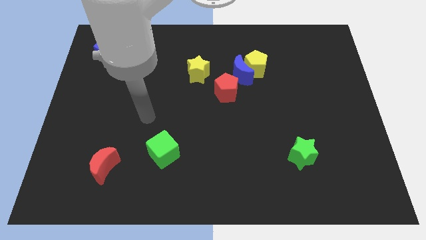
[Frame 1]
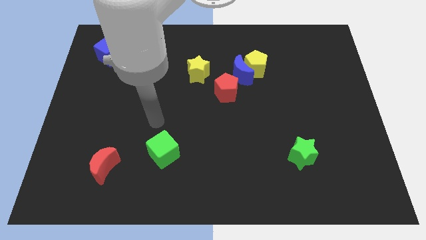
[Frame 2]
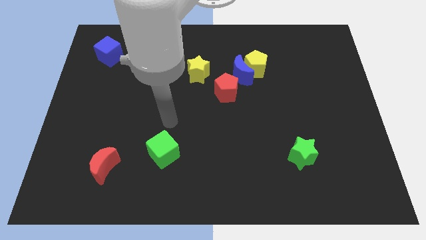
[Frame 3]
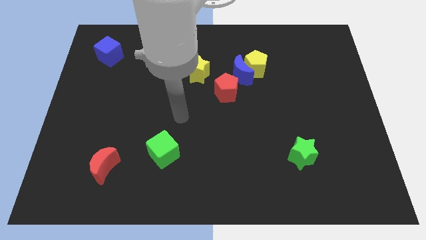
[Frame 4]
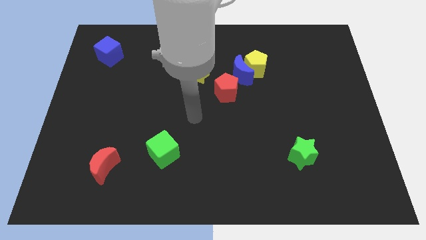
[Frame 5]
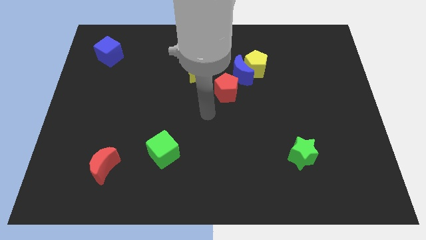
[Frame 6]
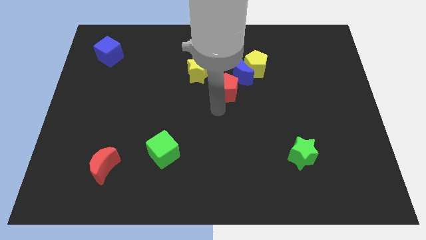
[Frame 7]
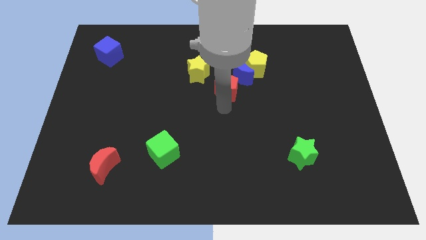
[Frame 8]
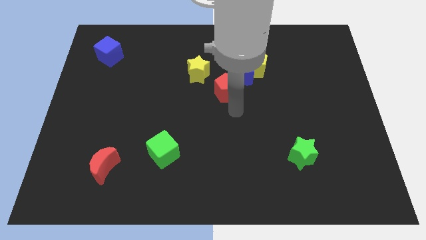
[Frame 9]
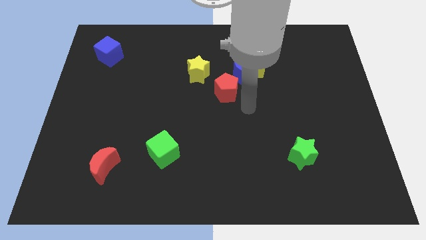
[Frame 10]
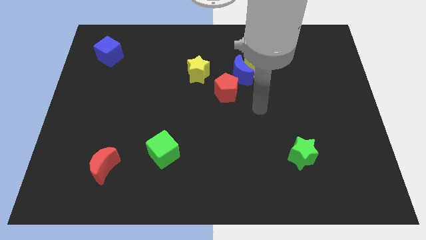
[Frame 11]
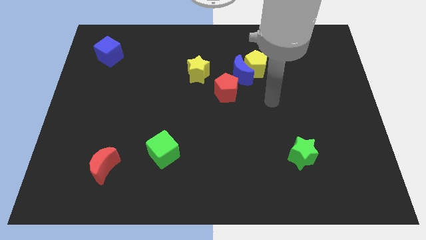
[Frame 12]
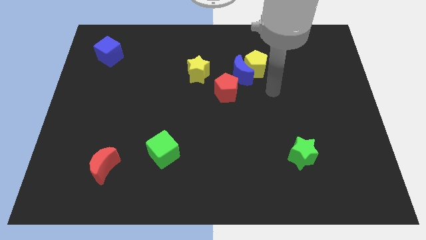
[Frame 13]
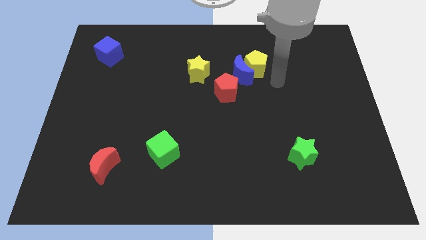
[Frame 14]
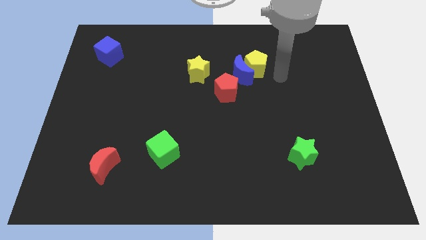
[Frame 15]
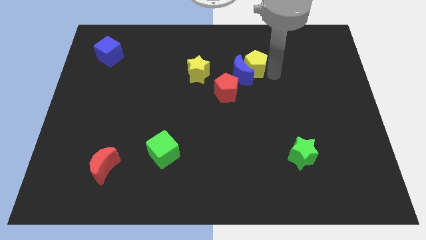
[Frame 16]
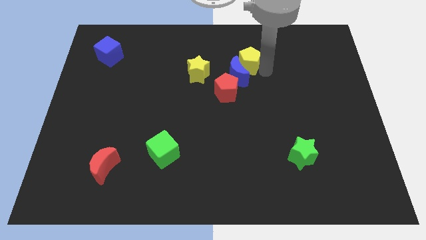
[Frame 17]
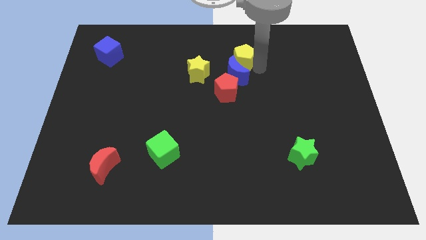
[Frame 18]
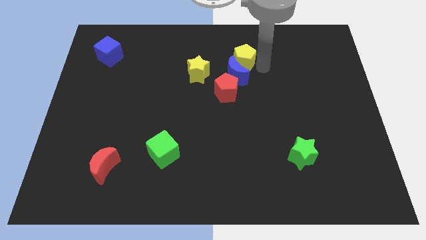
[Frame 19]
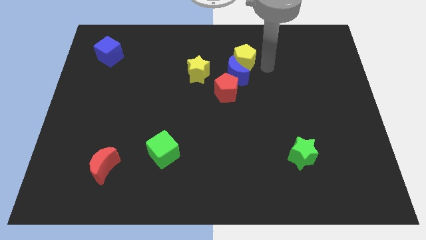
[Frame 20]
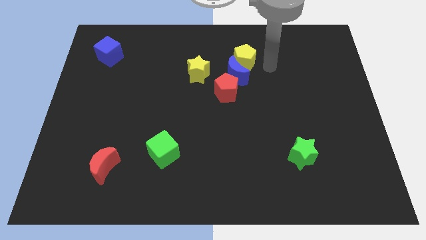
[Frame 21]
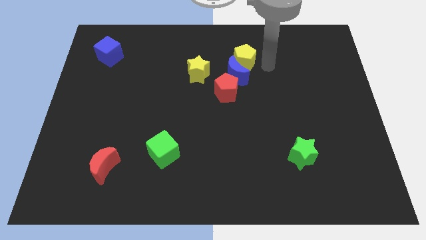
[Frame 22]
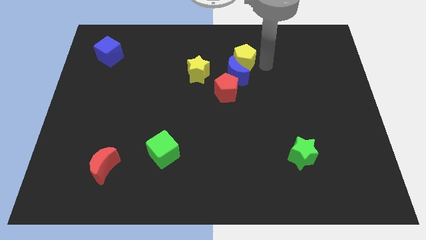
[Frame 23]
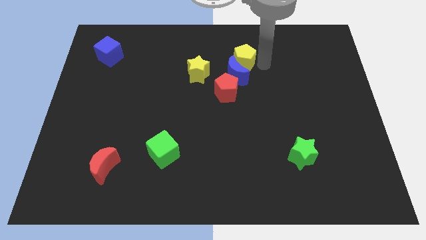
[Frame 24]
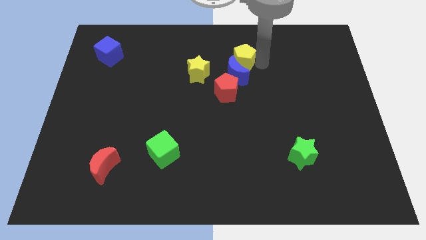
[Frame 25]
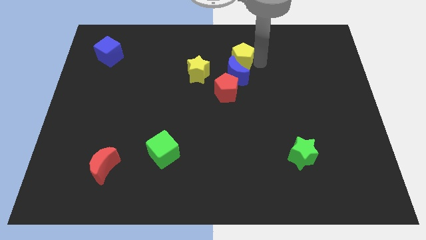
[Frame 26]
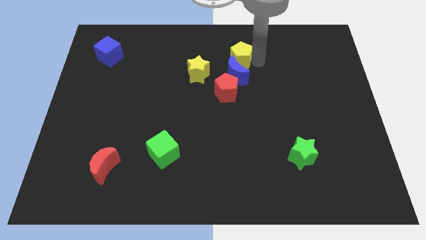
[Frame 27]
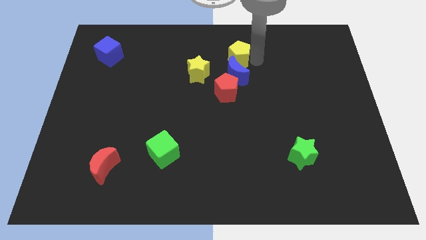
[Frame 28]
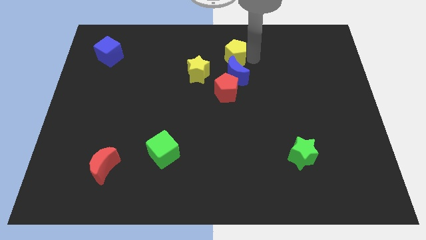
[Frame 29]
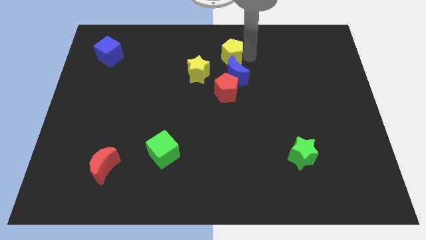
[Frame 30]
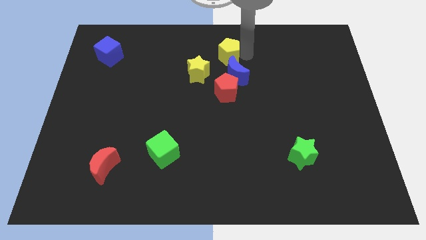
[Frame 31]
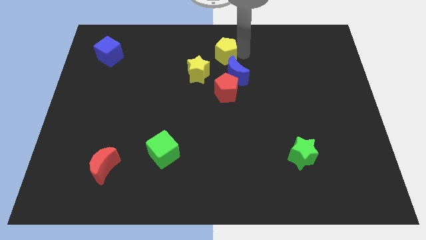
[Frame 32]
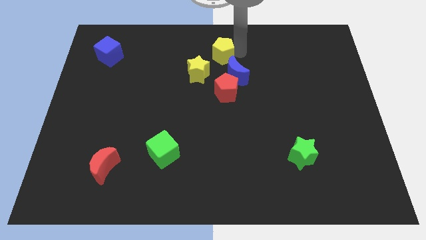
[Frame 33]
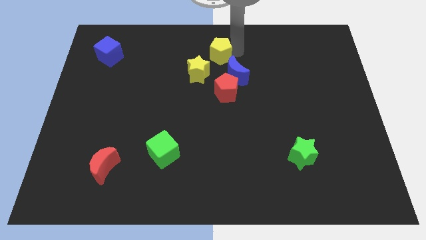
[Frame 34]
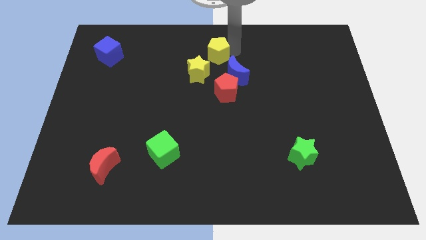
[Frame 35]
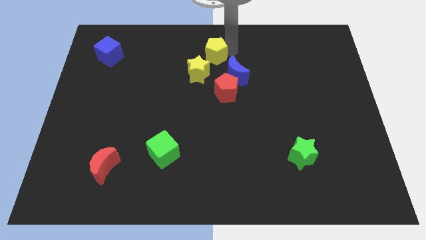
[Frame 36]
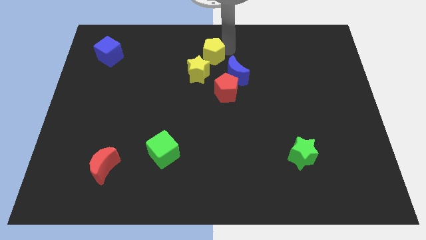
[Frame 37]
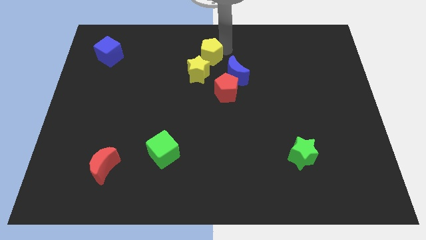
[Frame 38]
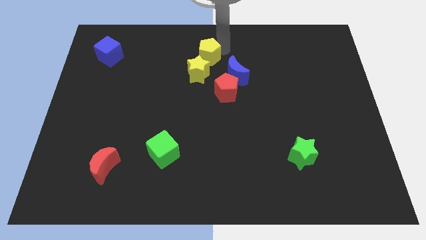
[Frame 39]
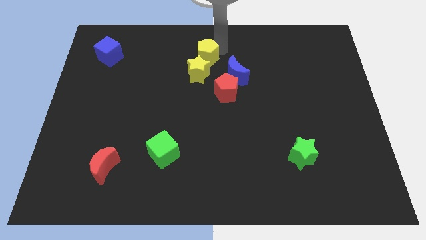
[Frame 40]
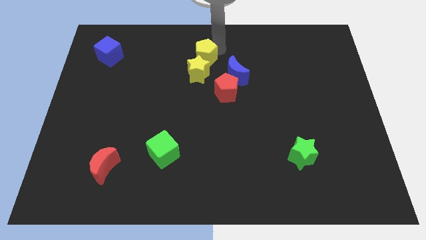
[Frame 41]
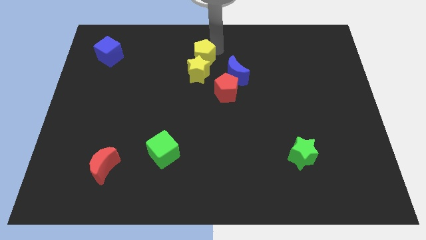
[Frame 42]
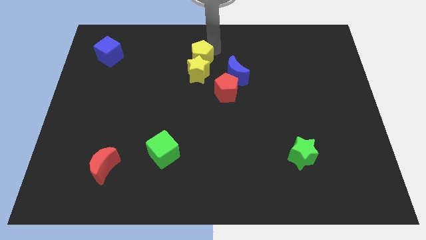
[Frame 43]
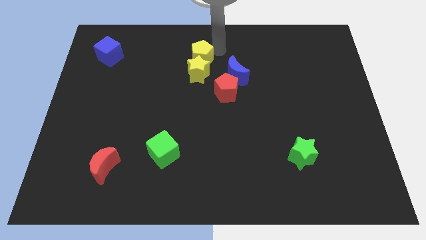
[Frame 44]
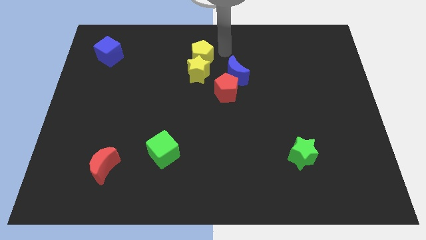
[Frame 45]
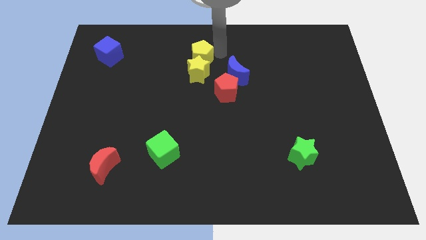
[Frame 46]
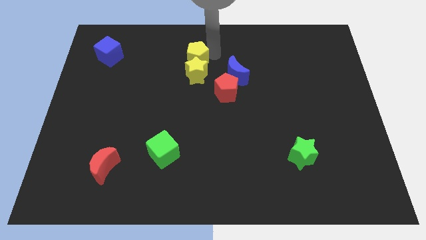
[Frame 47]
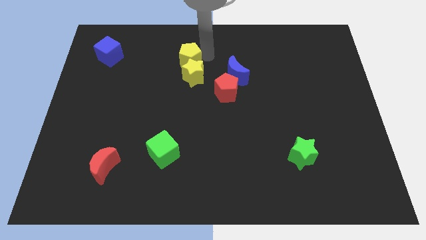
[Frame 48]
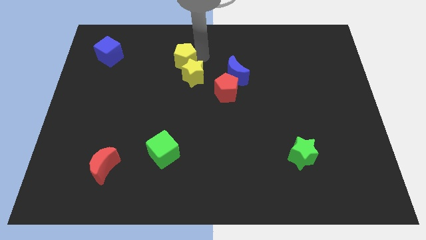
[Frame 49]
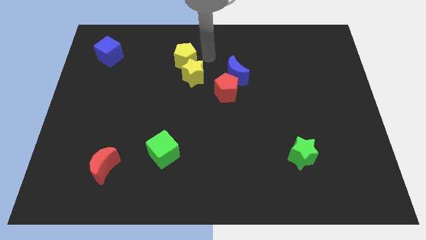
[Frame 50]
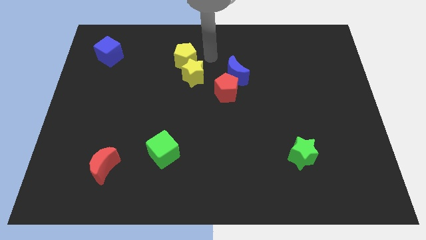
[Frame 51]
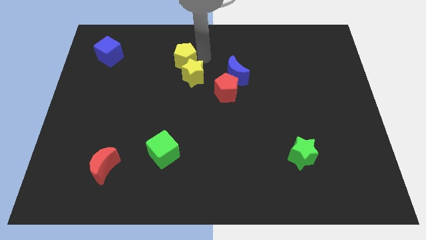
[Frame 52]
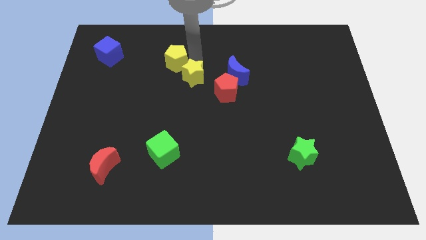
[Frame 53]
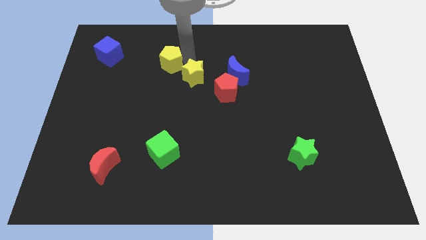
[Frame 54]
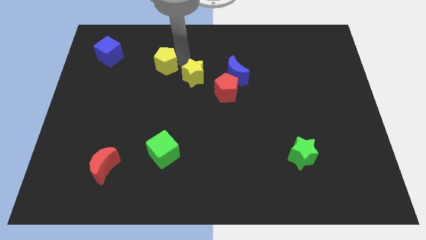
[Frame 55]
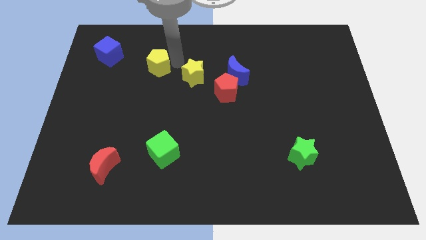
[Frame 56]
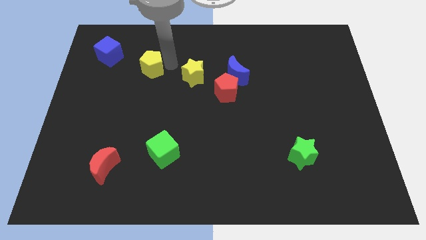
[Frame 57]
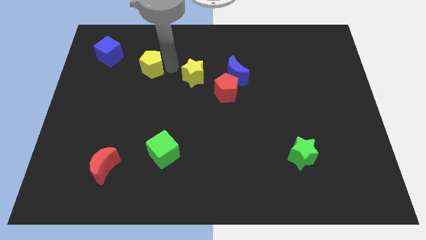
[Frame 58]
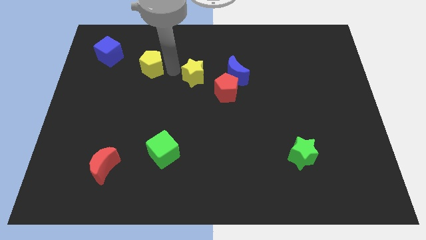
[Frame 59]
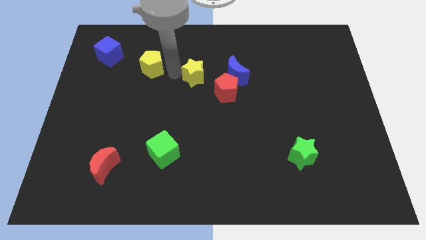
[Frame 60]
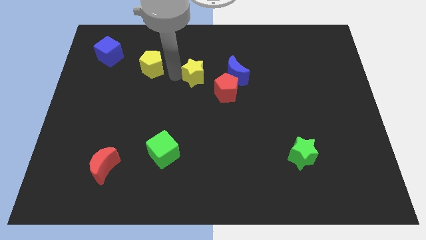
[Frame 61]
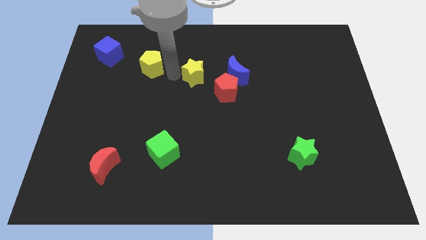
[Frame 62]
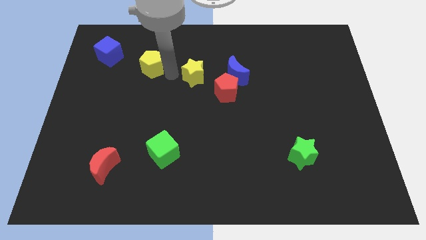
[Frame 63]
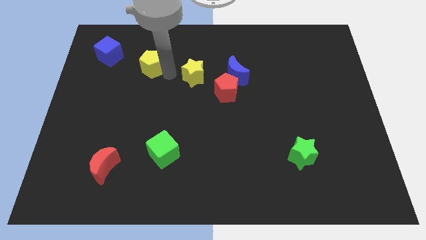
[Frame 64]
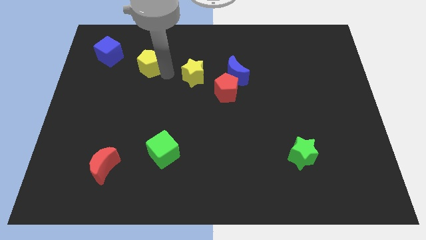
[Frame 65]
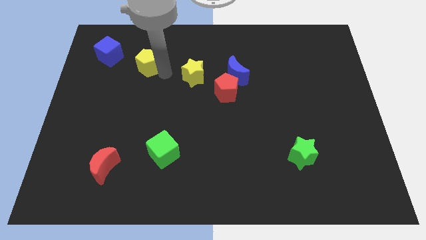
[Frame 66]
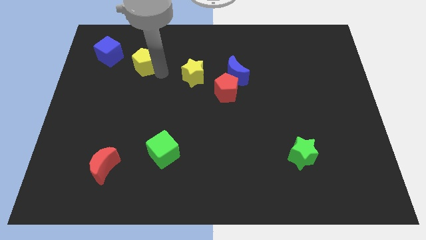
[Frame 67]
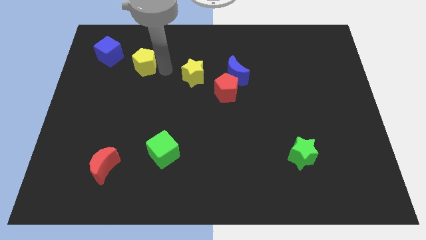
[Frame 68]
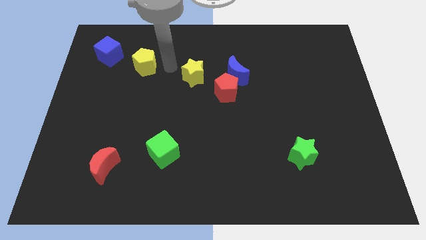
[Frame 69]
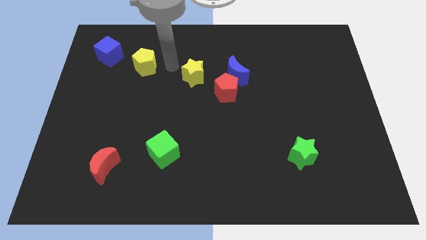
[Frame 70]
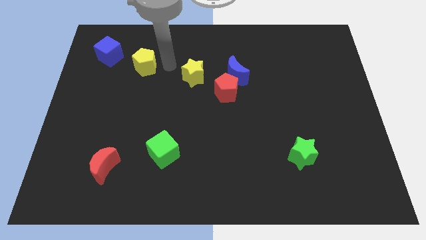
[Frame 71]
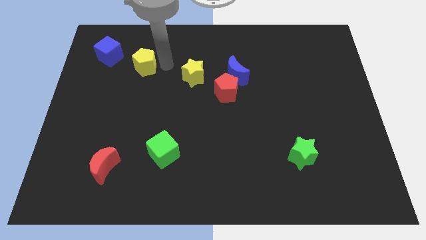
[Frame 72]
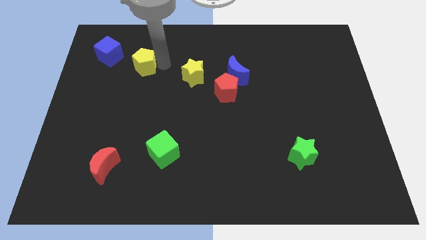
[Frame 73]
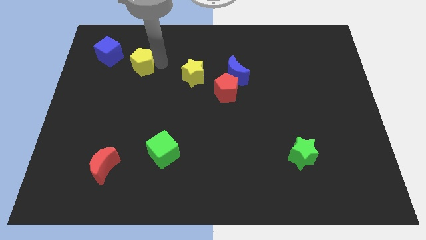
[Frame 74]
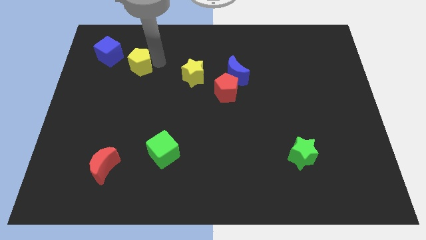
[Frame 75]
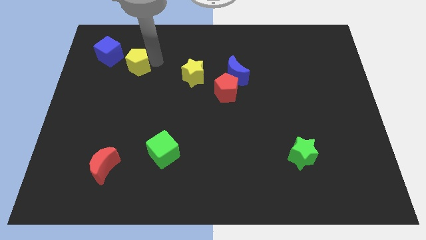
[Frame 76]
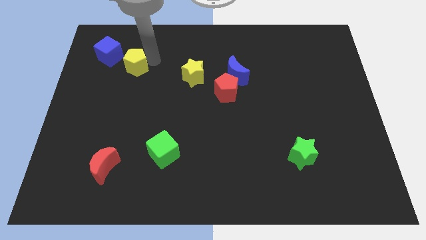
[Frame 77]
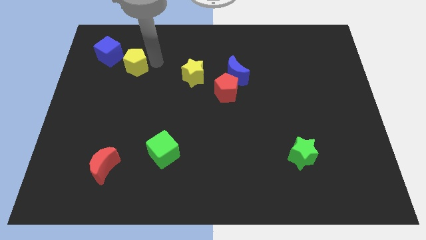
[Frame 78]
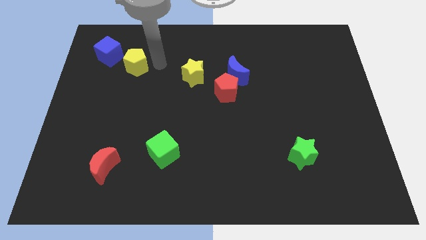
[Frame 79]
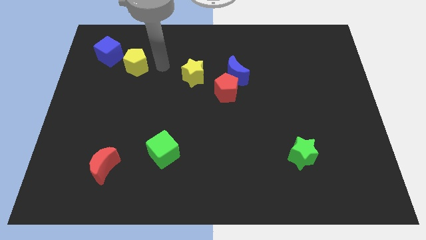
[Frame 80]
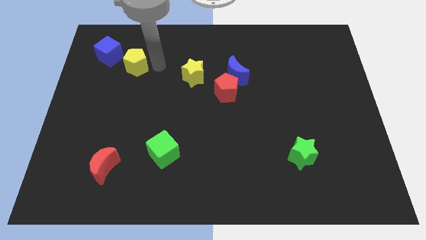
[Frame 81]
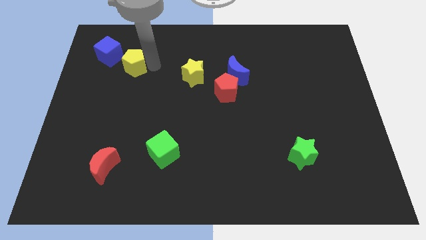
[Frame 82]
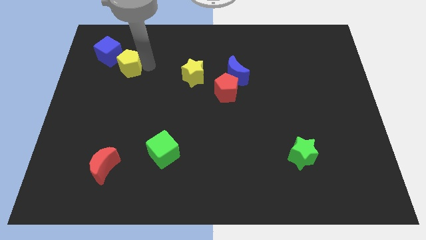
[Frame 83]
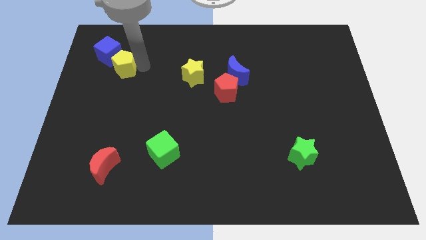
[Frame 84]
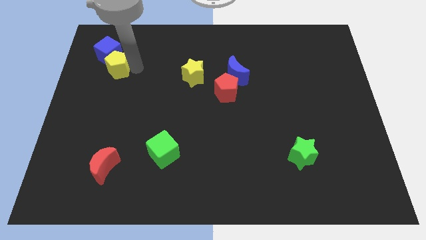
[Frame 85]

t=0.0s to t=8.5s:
push the yellow pentagon towards the blue cube
